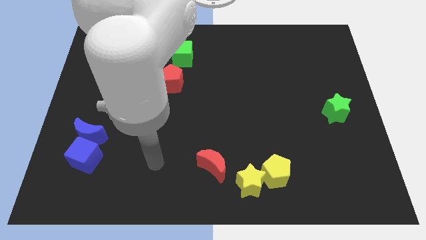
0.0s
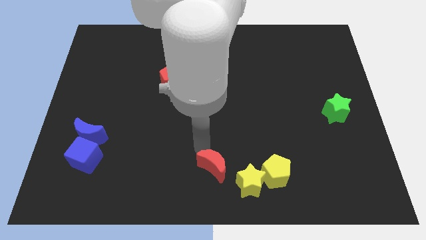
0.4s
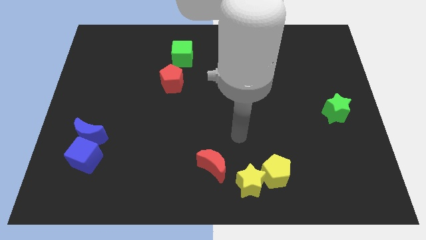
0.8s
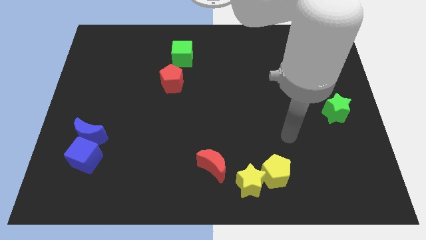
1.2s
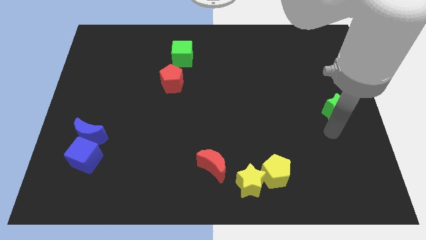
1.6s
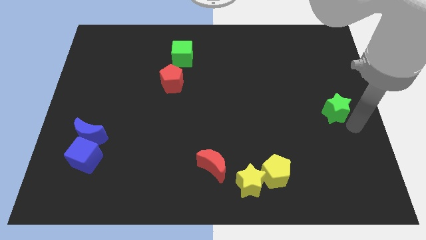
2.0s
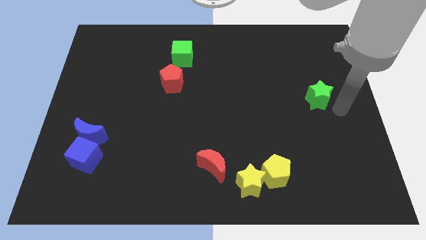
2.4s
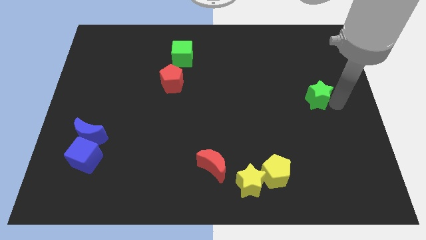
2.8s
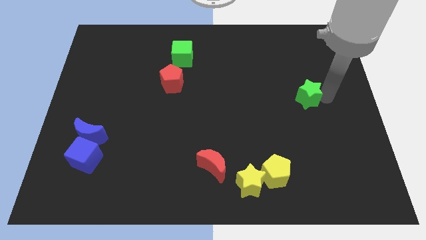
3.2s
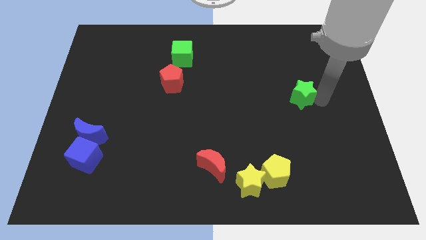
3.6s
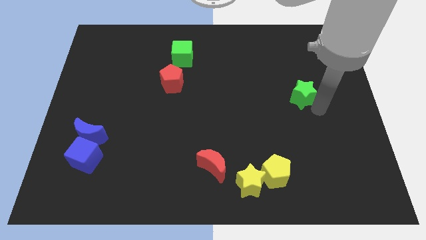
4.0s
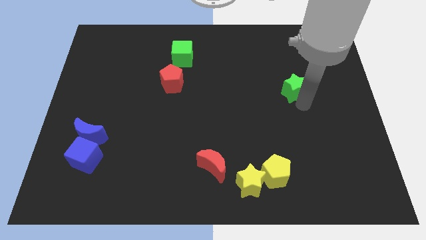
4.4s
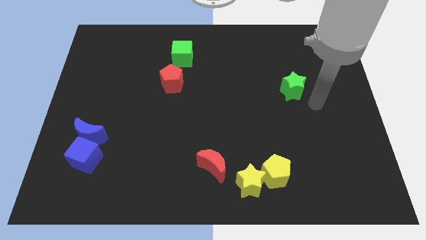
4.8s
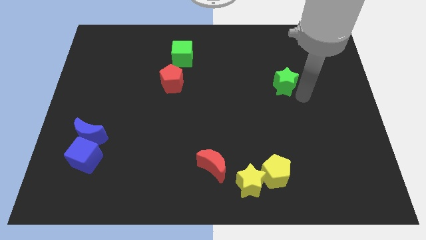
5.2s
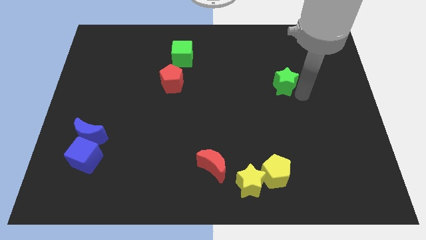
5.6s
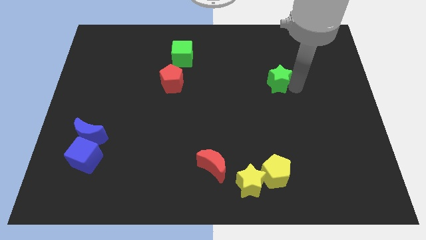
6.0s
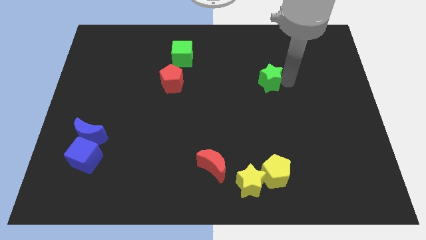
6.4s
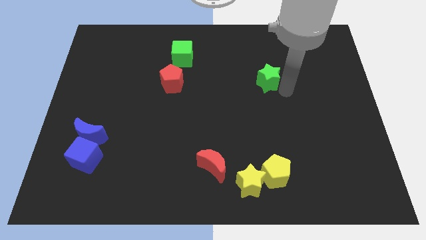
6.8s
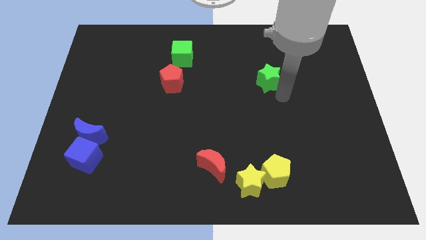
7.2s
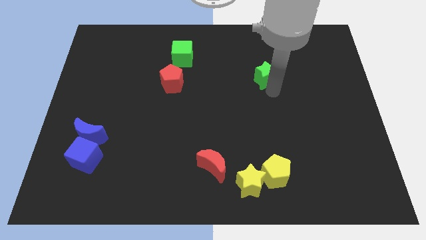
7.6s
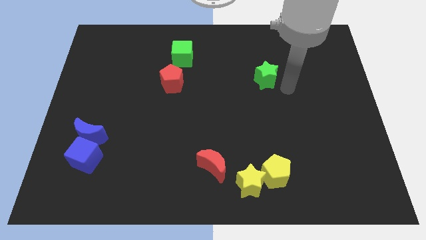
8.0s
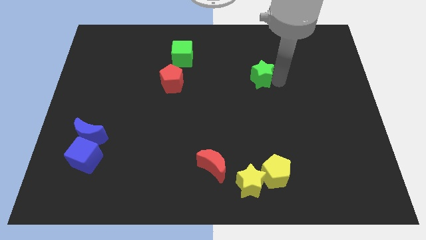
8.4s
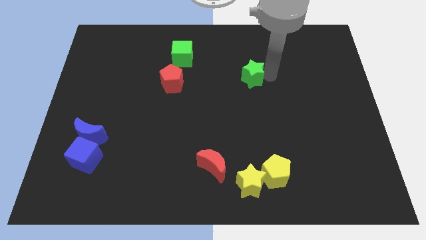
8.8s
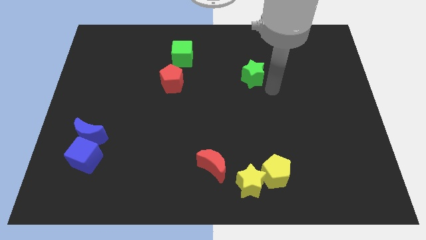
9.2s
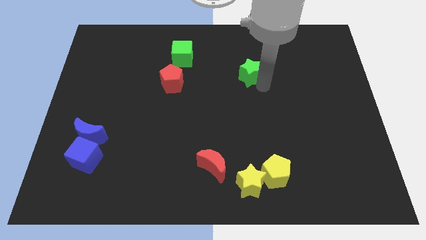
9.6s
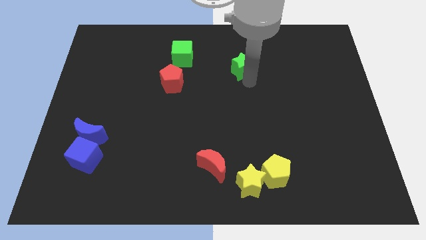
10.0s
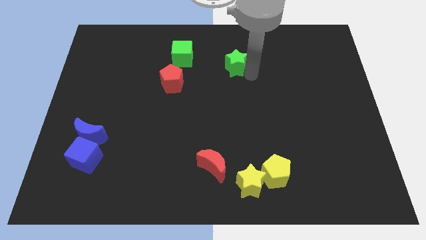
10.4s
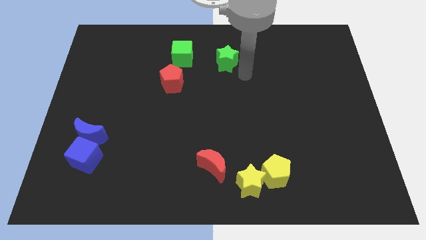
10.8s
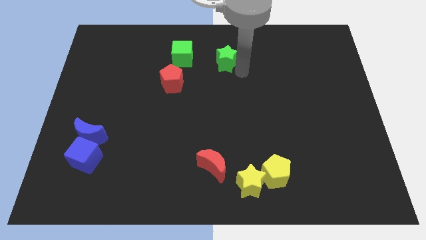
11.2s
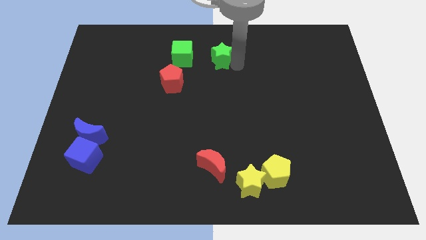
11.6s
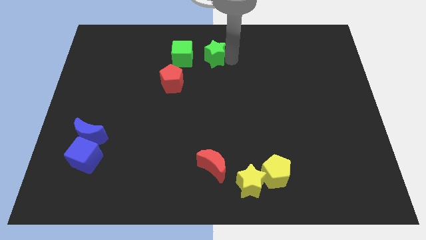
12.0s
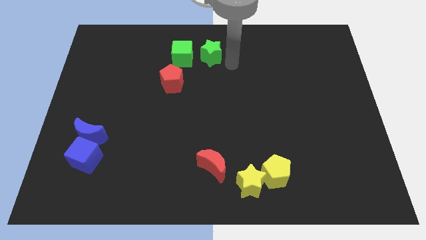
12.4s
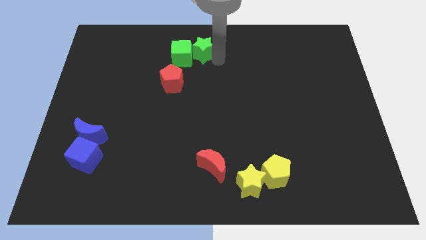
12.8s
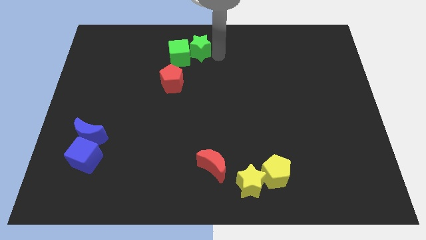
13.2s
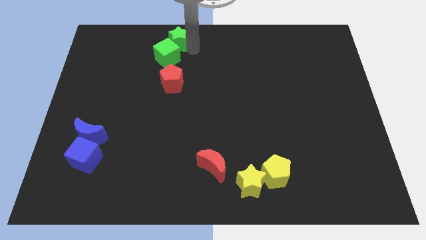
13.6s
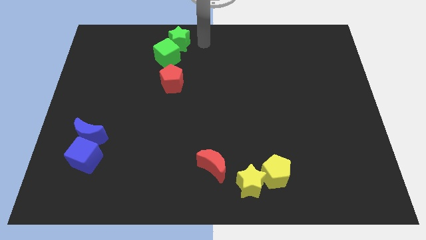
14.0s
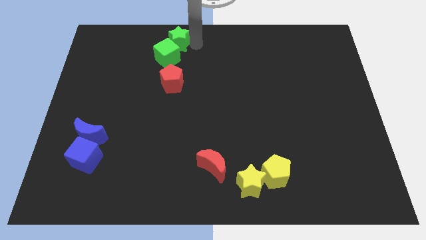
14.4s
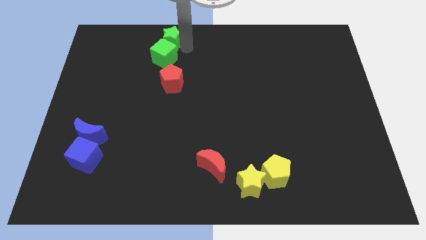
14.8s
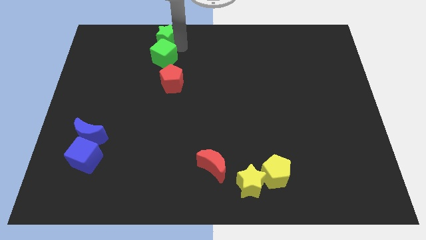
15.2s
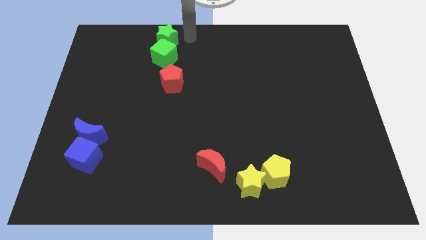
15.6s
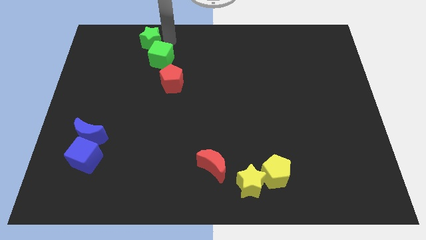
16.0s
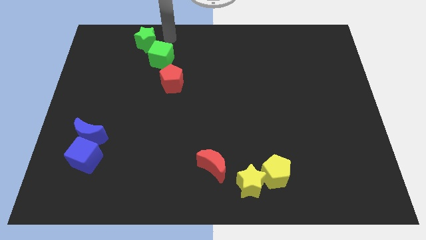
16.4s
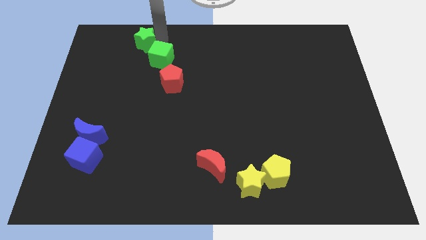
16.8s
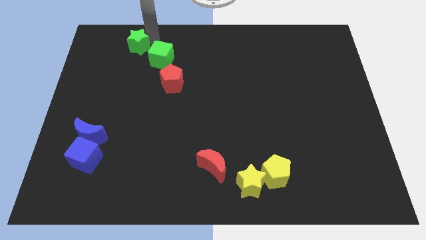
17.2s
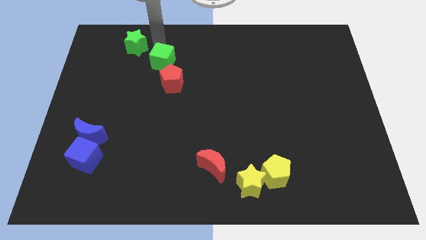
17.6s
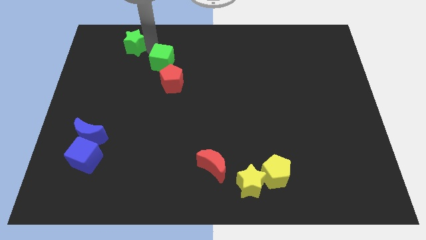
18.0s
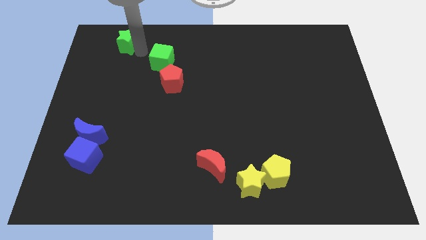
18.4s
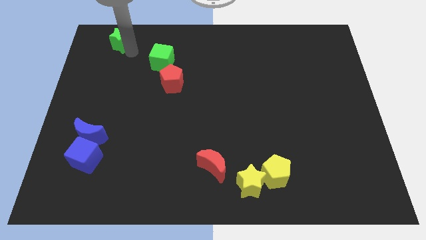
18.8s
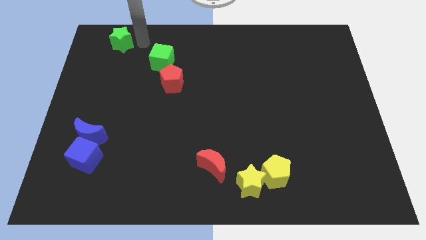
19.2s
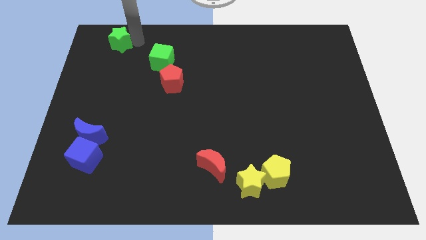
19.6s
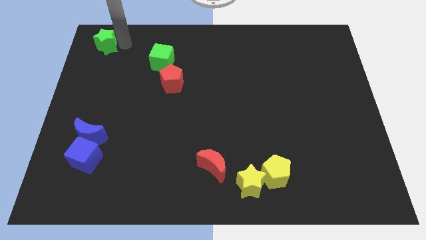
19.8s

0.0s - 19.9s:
slide the green star to the upper left corner

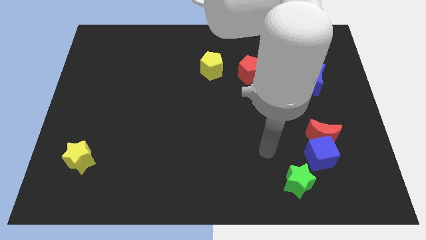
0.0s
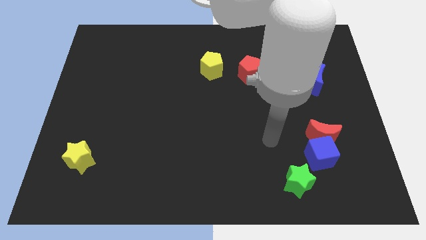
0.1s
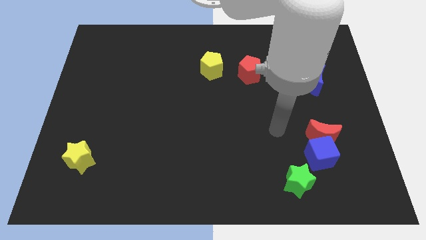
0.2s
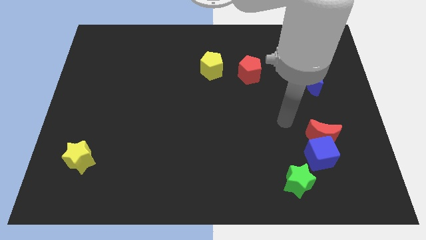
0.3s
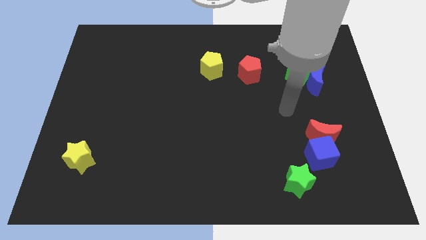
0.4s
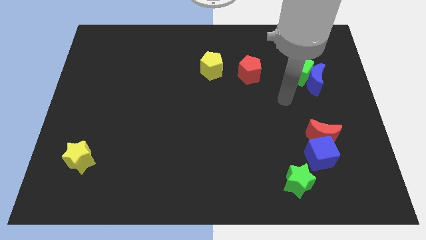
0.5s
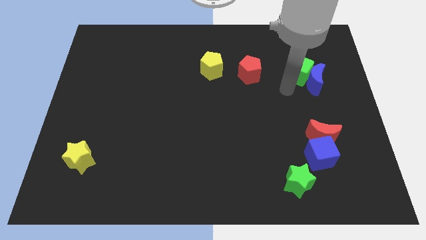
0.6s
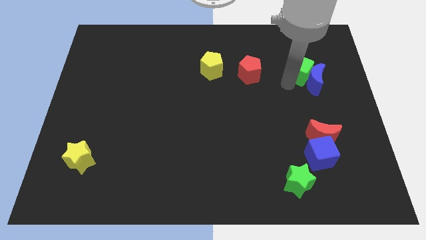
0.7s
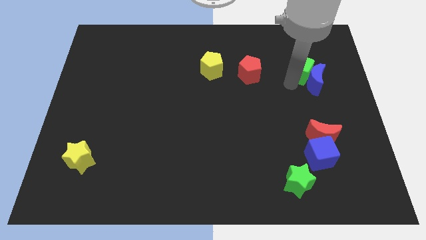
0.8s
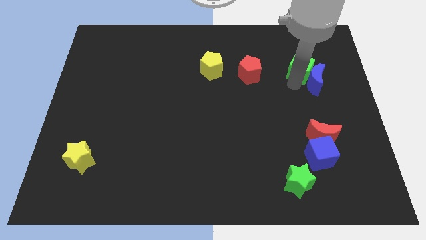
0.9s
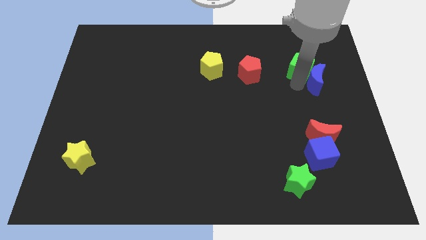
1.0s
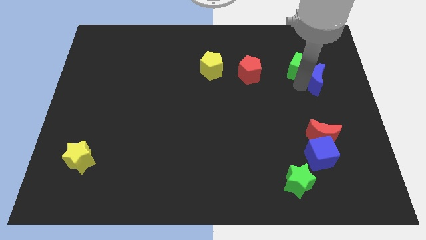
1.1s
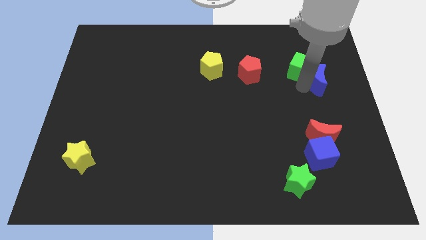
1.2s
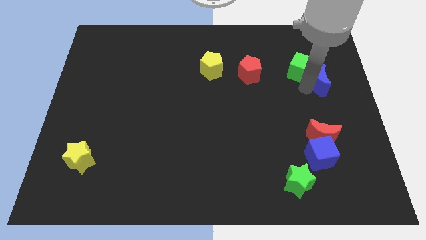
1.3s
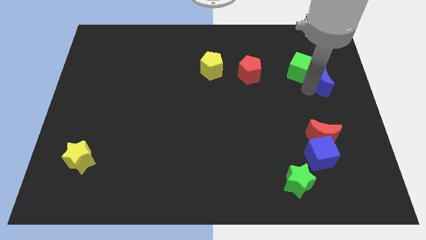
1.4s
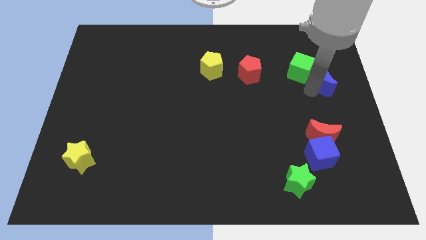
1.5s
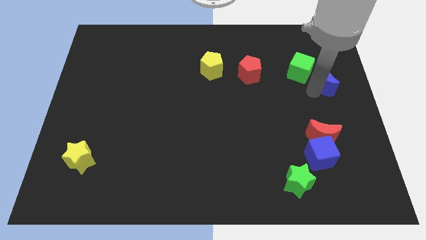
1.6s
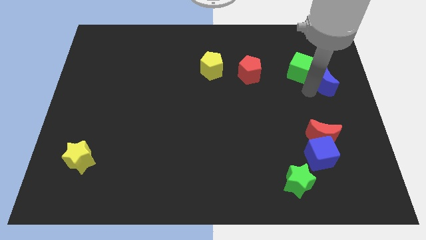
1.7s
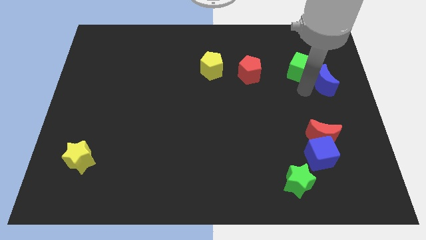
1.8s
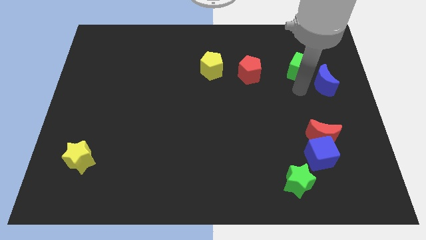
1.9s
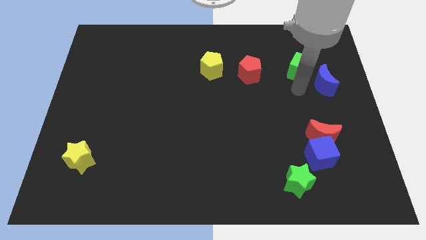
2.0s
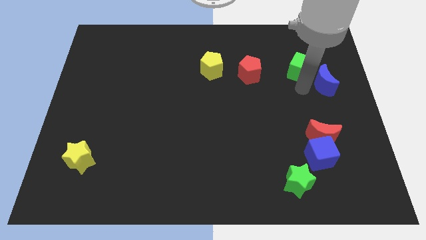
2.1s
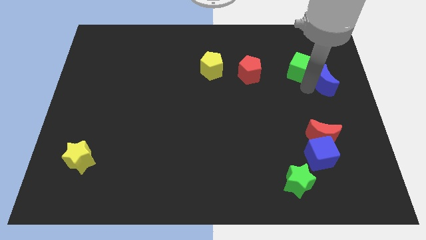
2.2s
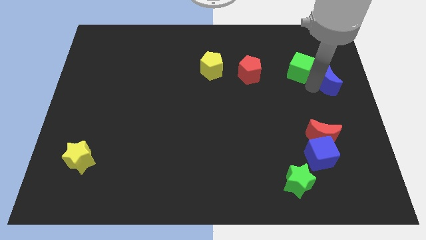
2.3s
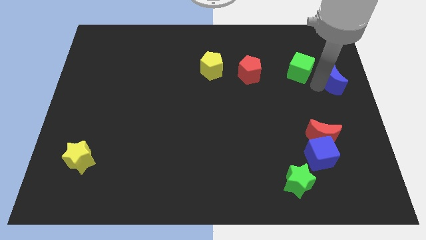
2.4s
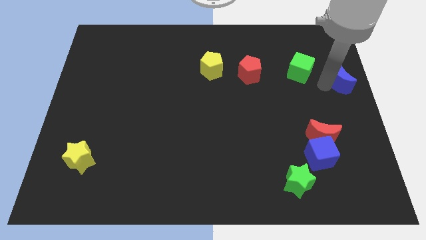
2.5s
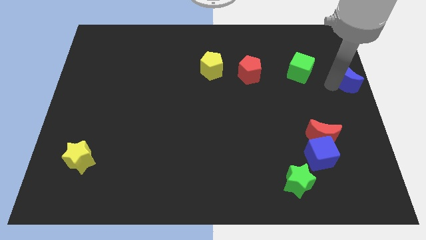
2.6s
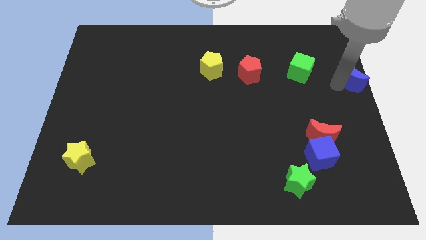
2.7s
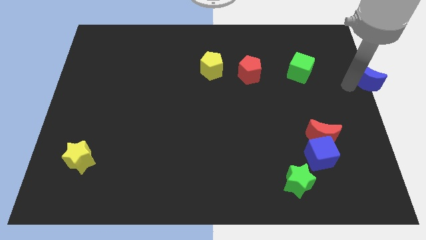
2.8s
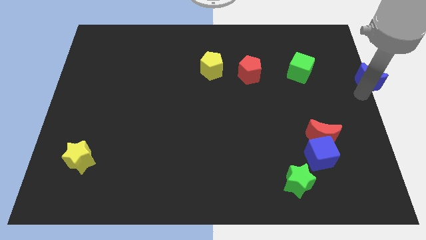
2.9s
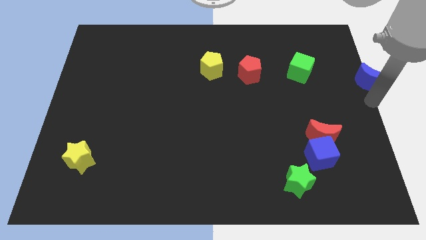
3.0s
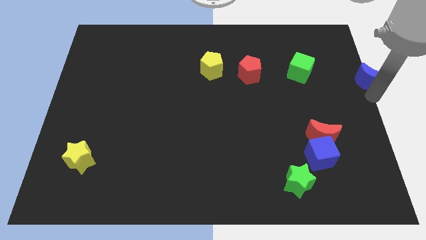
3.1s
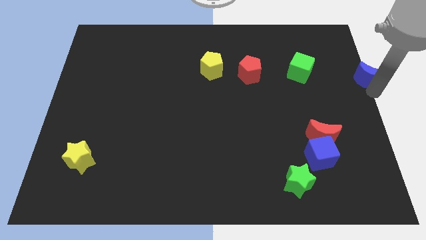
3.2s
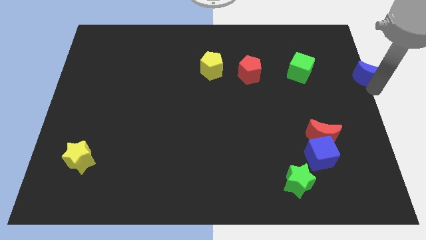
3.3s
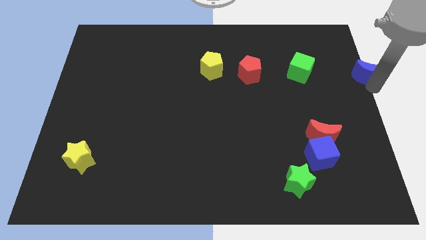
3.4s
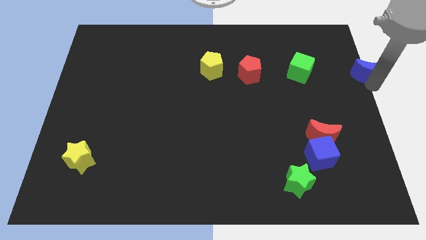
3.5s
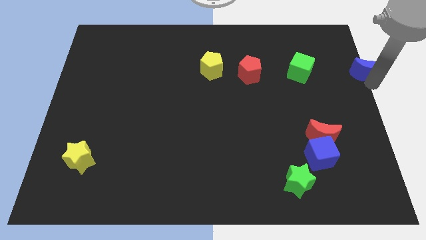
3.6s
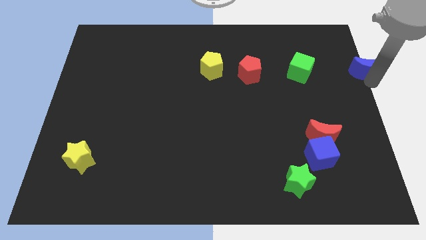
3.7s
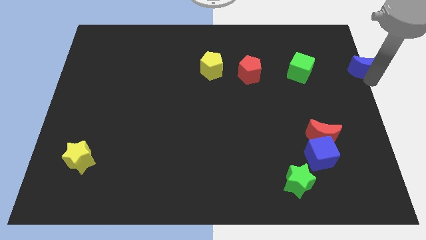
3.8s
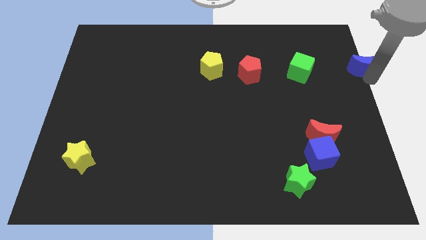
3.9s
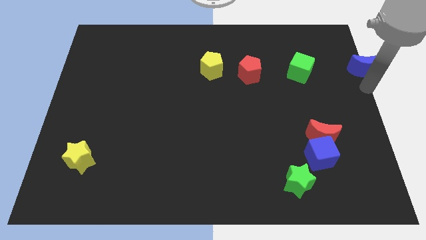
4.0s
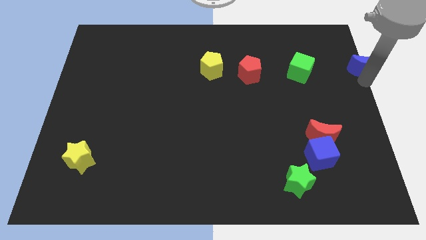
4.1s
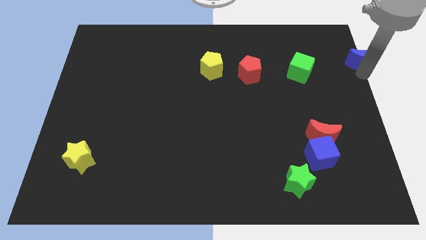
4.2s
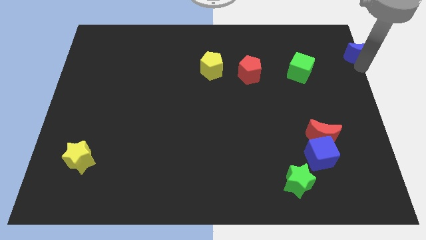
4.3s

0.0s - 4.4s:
slide the blue moon to the upper right corner
